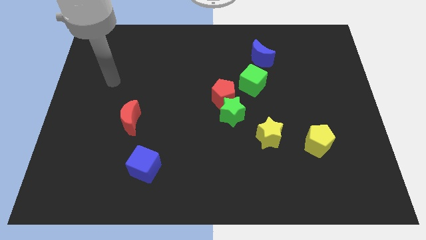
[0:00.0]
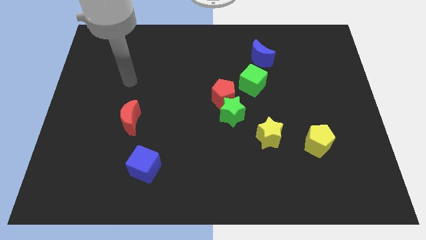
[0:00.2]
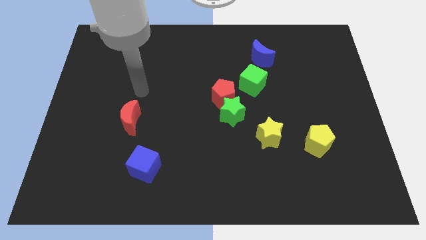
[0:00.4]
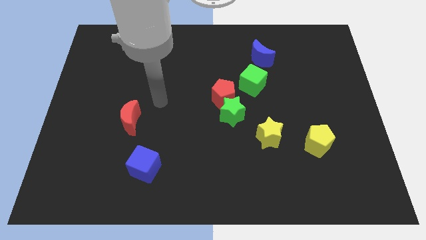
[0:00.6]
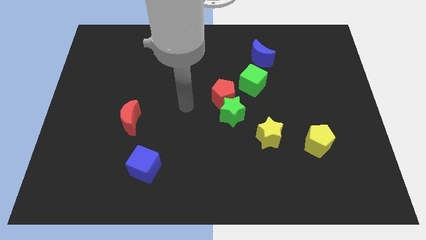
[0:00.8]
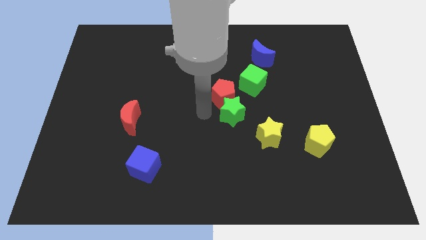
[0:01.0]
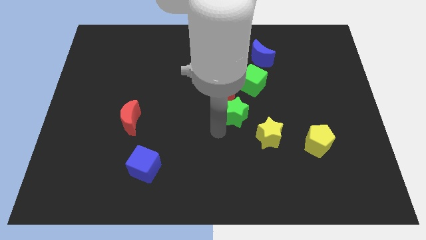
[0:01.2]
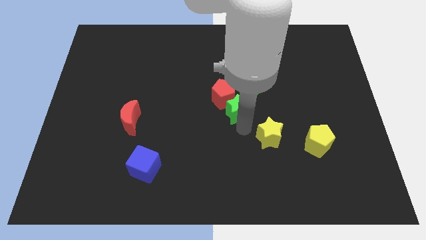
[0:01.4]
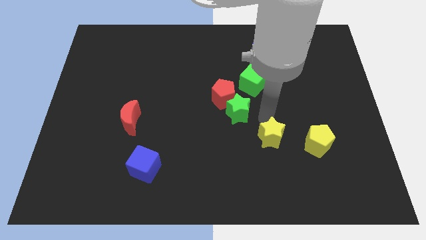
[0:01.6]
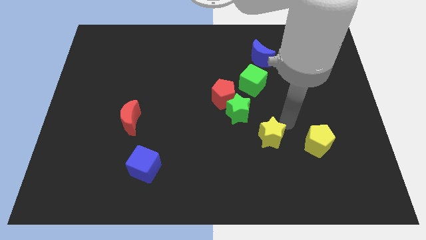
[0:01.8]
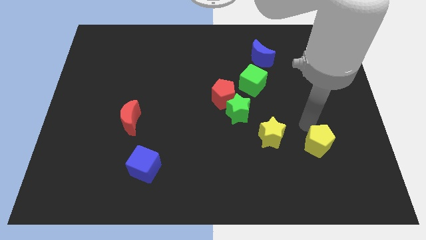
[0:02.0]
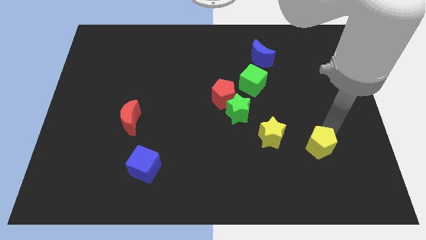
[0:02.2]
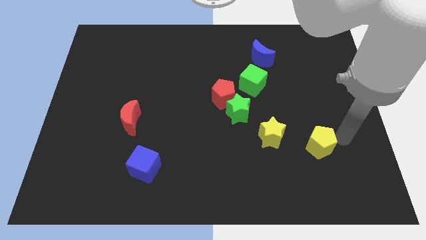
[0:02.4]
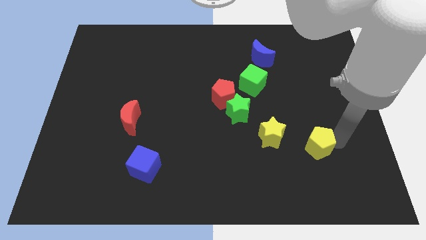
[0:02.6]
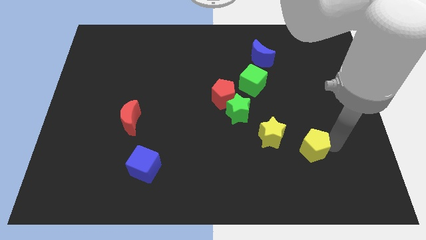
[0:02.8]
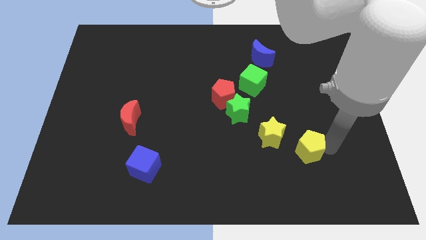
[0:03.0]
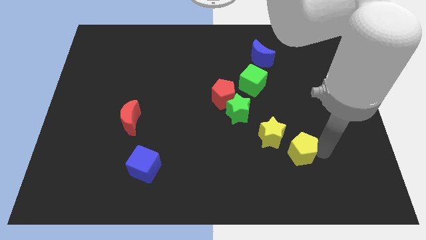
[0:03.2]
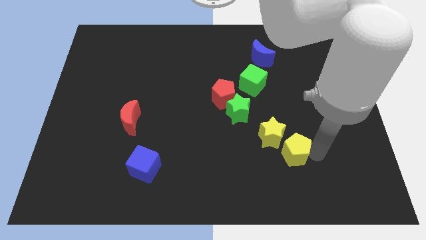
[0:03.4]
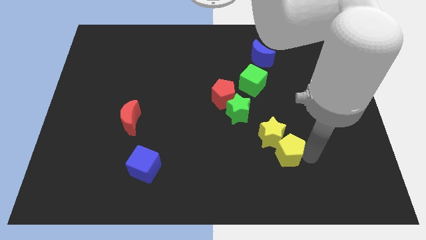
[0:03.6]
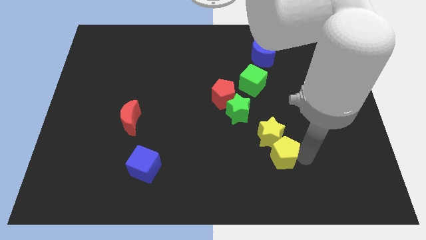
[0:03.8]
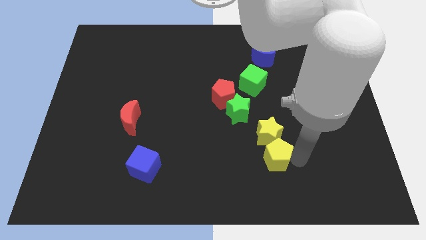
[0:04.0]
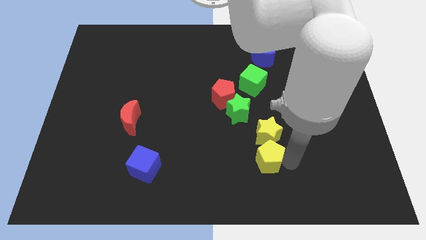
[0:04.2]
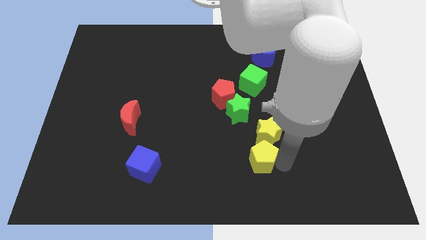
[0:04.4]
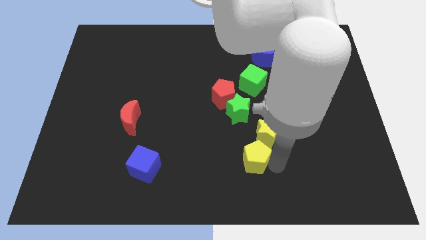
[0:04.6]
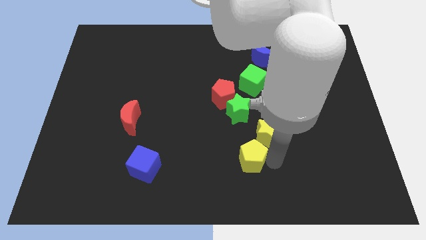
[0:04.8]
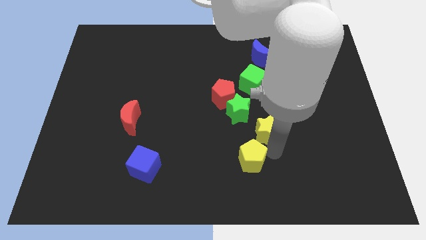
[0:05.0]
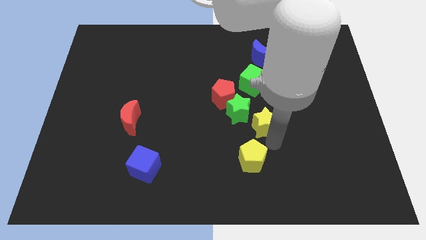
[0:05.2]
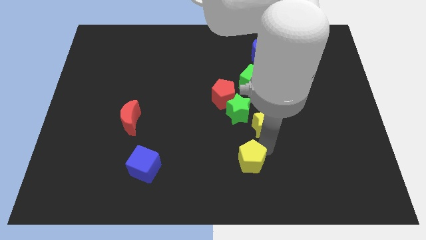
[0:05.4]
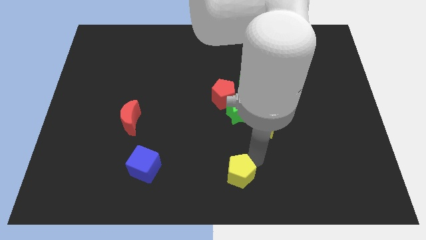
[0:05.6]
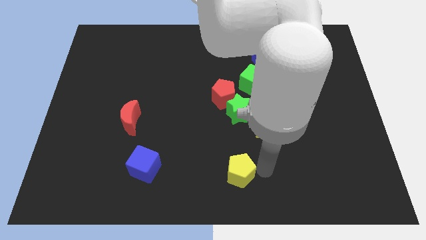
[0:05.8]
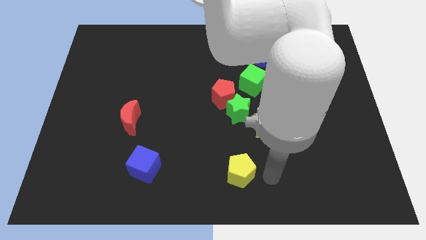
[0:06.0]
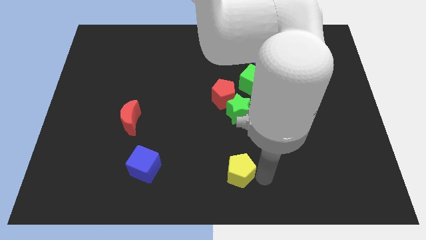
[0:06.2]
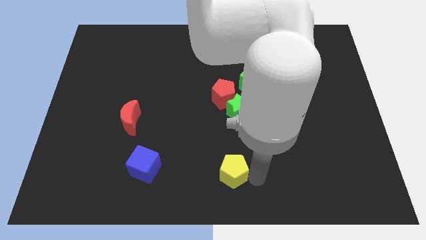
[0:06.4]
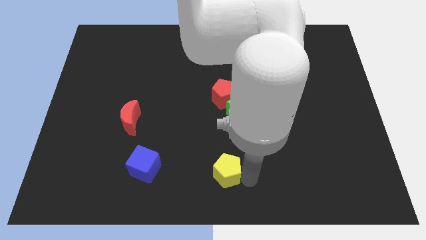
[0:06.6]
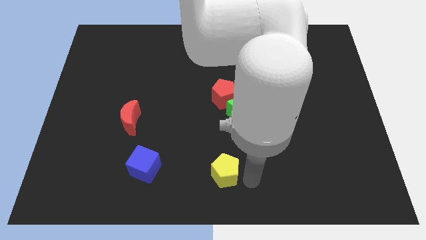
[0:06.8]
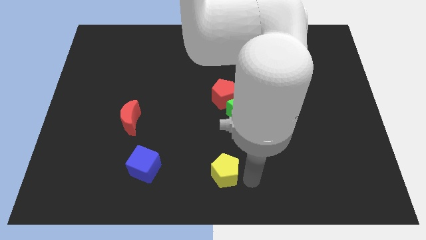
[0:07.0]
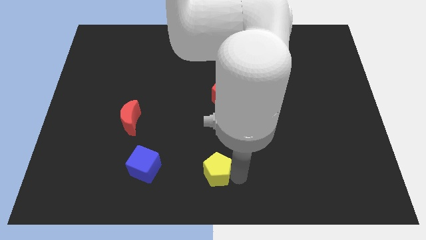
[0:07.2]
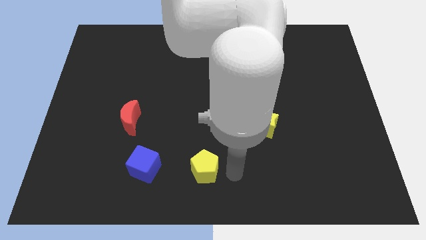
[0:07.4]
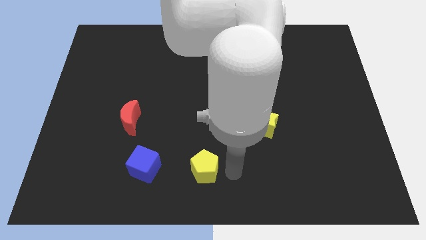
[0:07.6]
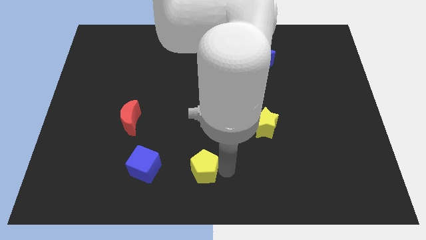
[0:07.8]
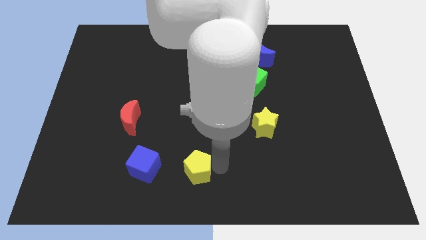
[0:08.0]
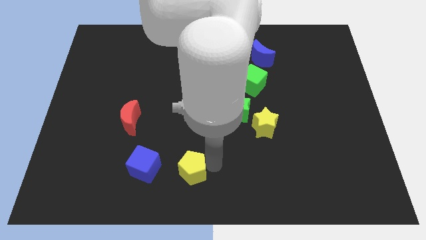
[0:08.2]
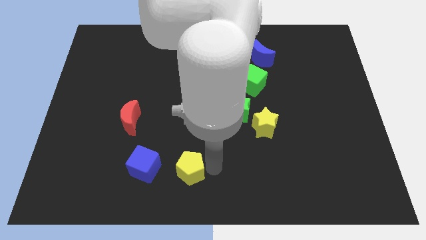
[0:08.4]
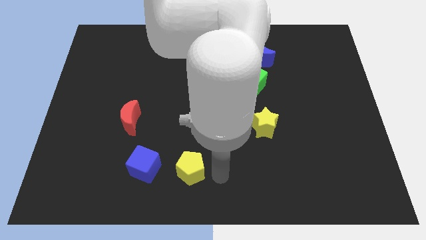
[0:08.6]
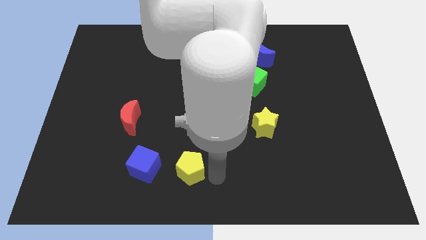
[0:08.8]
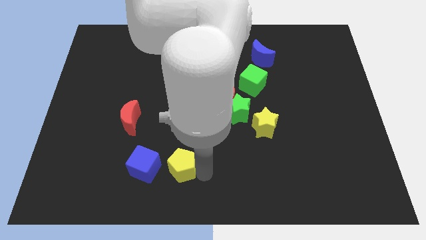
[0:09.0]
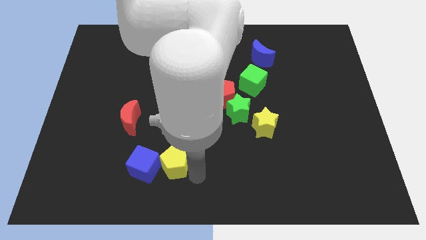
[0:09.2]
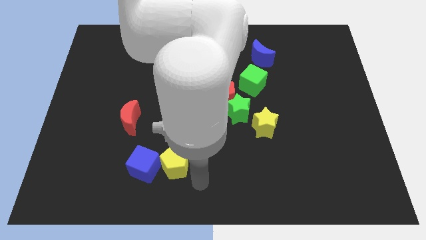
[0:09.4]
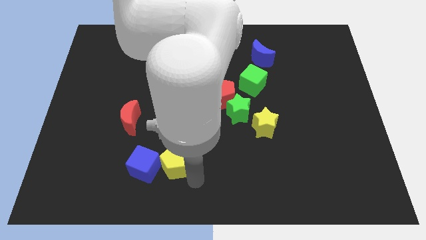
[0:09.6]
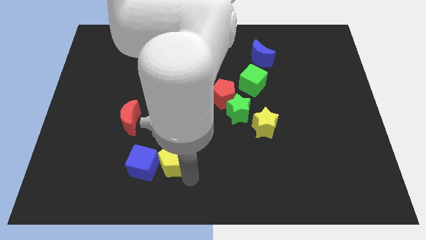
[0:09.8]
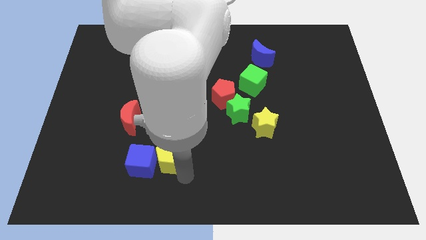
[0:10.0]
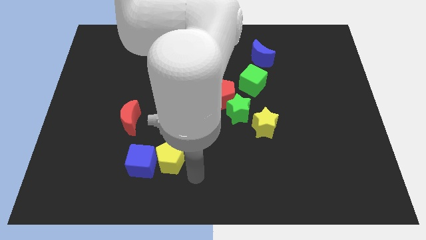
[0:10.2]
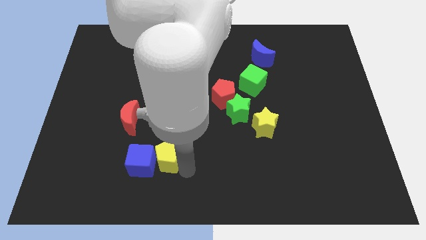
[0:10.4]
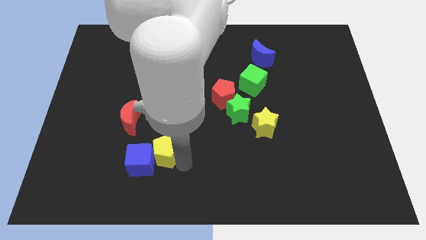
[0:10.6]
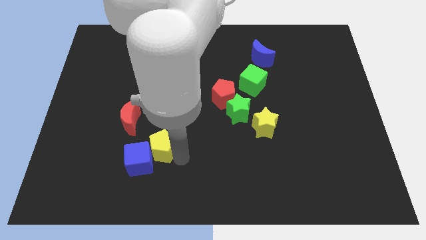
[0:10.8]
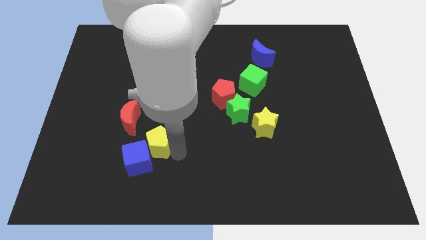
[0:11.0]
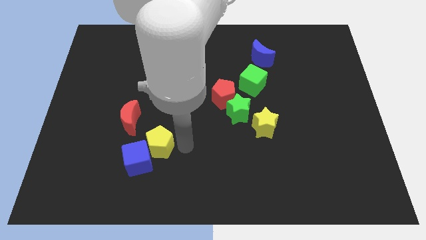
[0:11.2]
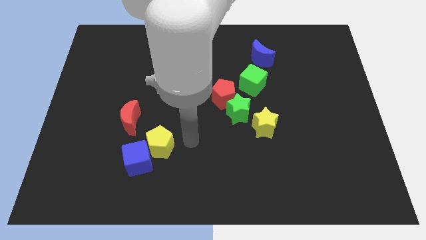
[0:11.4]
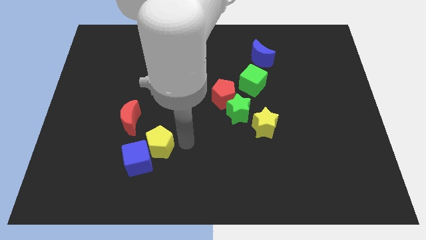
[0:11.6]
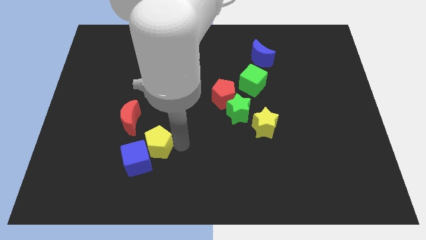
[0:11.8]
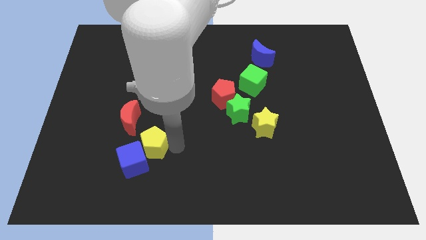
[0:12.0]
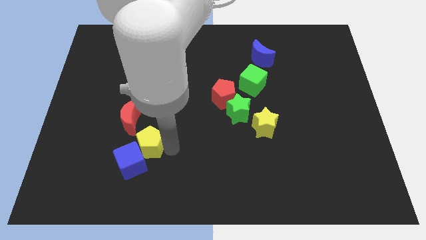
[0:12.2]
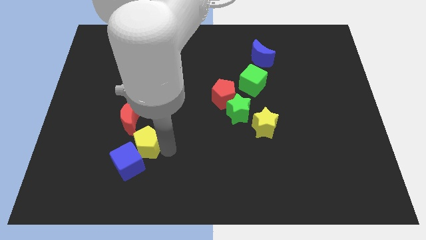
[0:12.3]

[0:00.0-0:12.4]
move the yellow pentagon to the bottom of the red moon

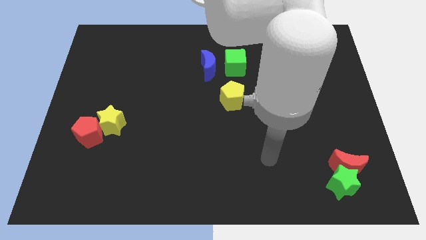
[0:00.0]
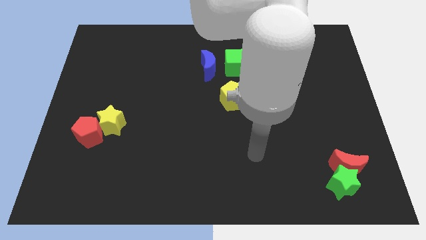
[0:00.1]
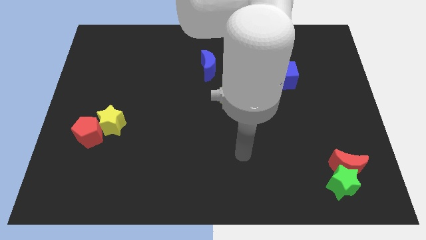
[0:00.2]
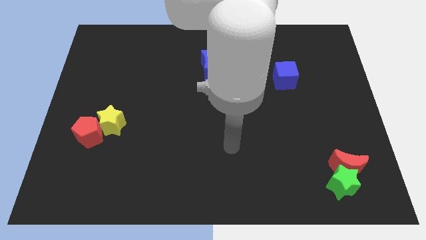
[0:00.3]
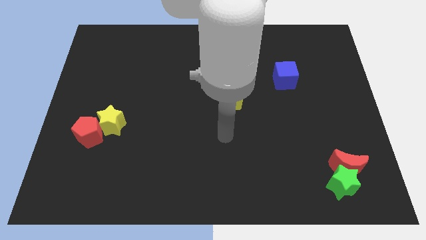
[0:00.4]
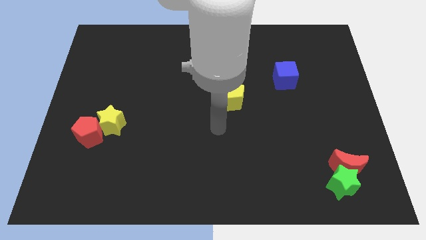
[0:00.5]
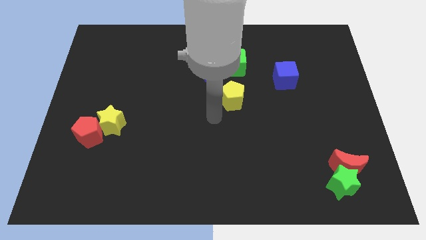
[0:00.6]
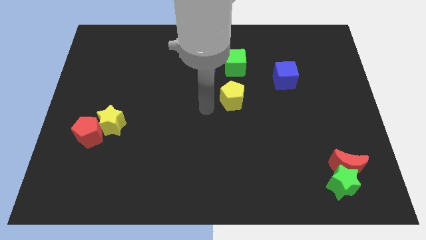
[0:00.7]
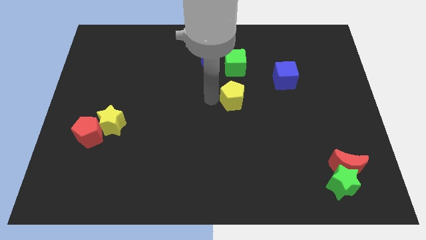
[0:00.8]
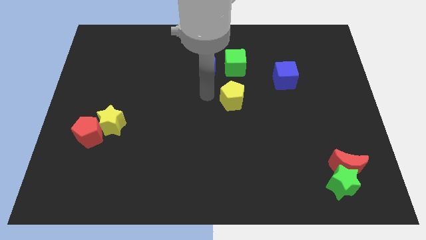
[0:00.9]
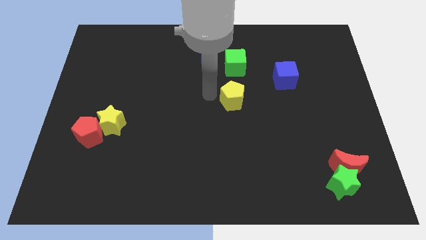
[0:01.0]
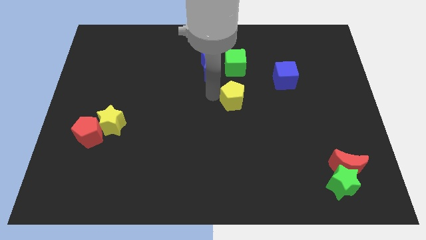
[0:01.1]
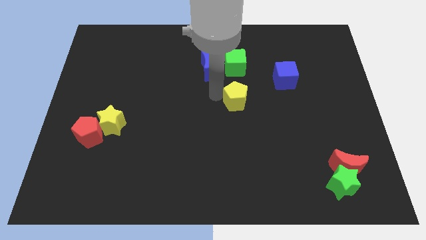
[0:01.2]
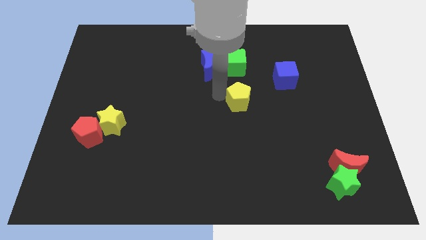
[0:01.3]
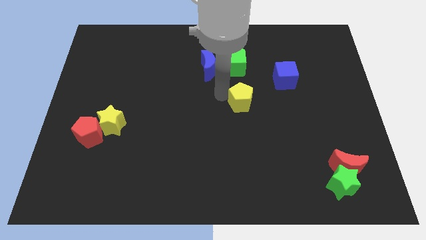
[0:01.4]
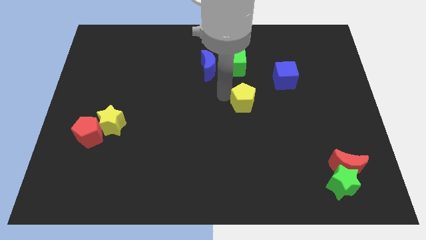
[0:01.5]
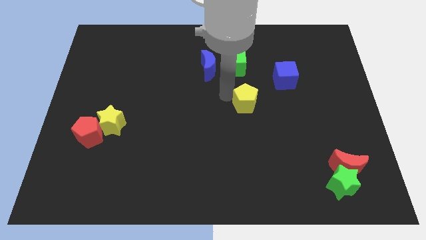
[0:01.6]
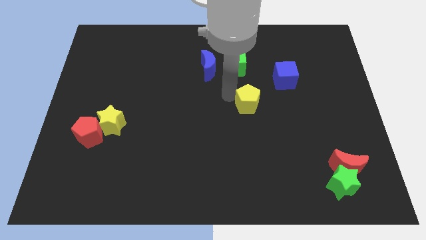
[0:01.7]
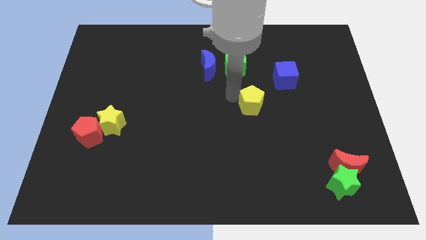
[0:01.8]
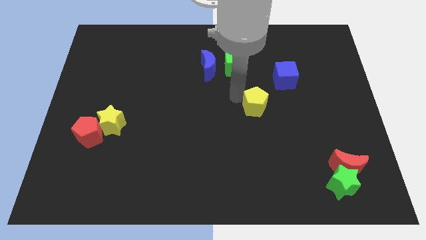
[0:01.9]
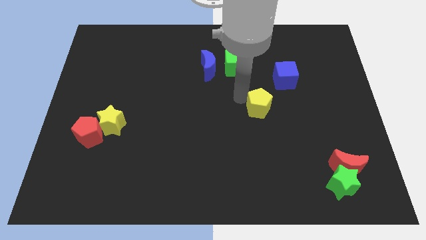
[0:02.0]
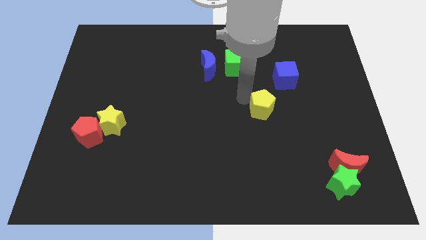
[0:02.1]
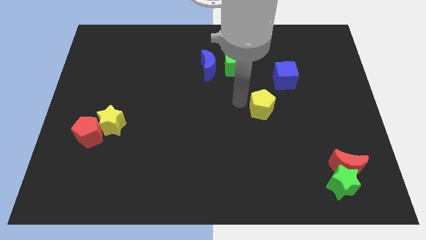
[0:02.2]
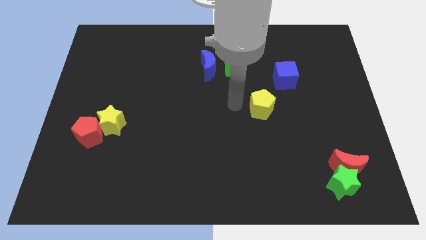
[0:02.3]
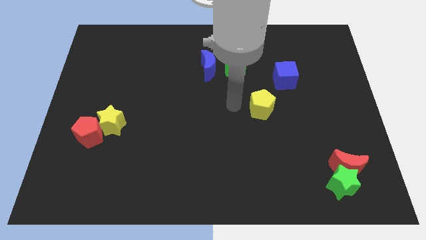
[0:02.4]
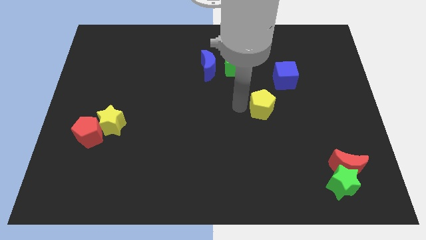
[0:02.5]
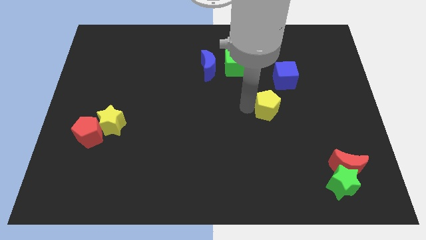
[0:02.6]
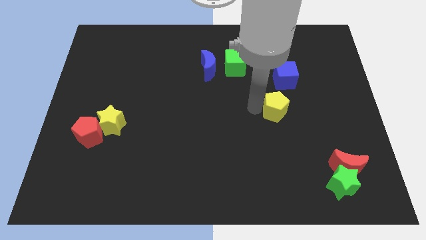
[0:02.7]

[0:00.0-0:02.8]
push the yellow pentagon below the blue cube
